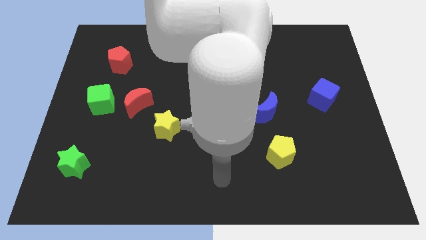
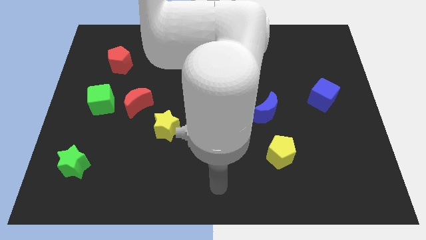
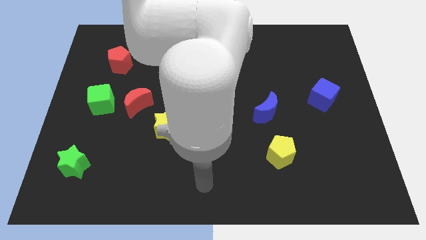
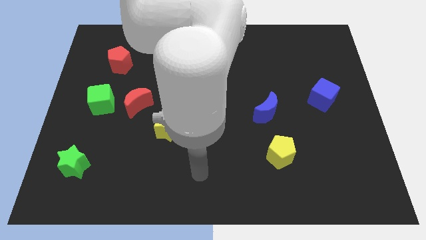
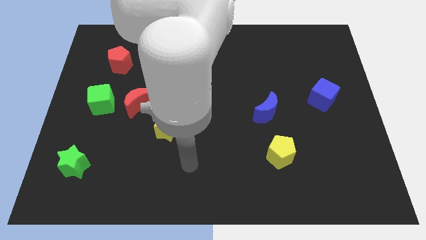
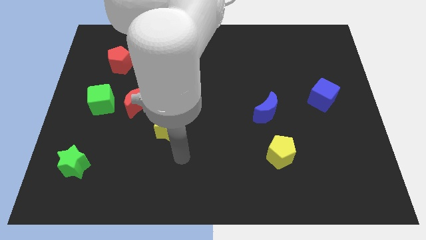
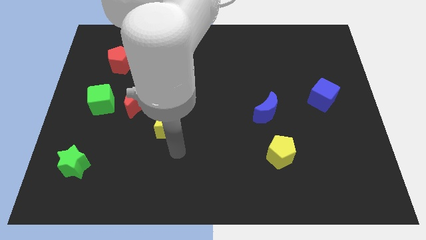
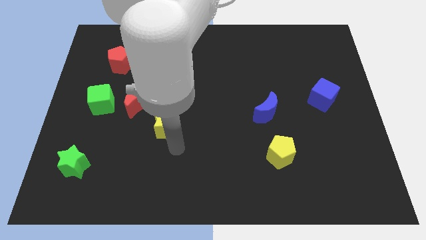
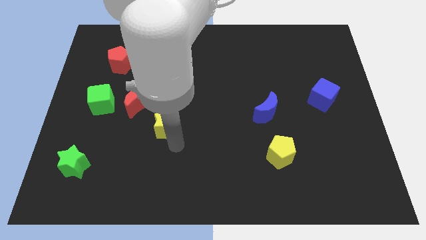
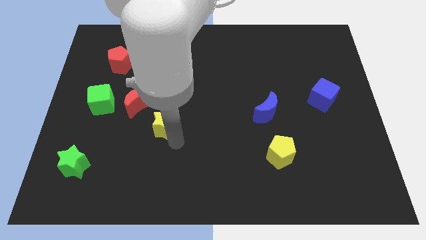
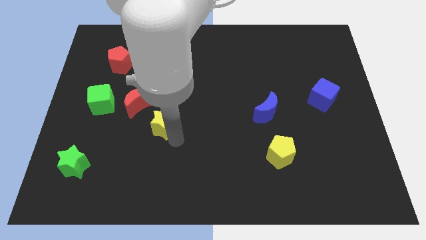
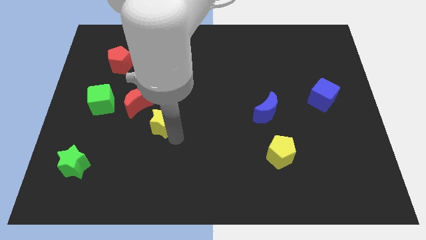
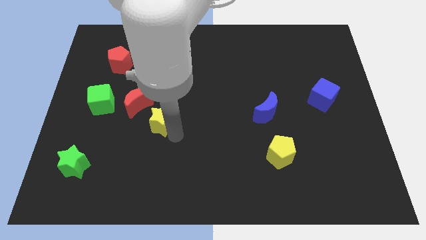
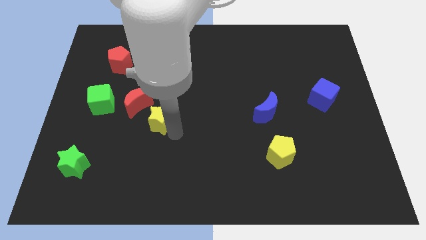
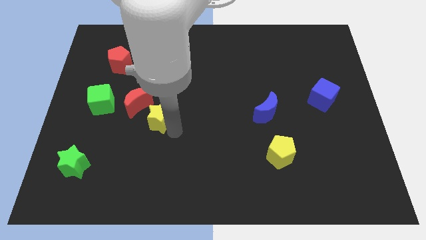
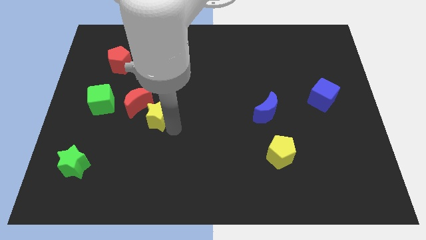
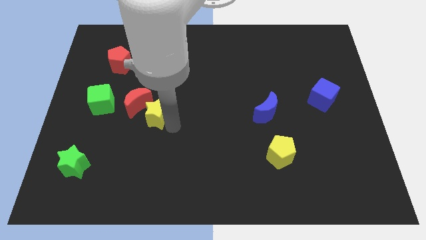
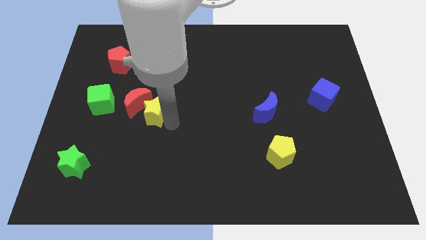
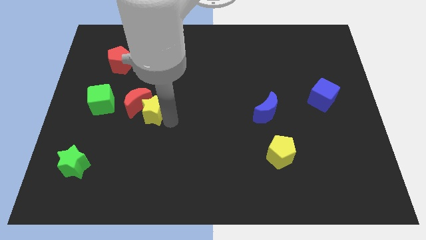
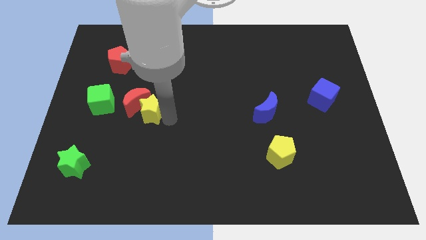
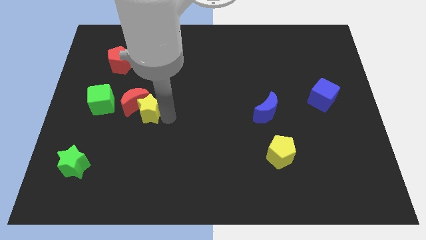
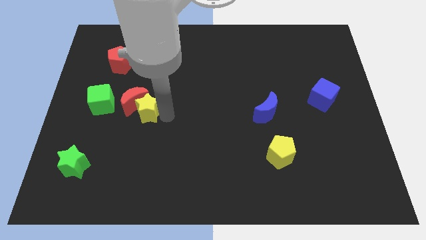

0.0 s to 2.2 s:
slightly slide the yellow star upwards and left diagonally

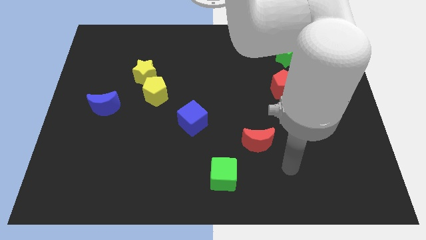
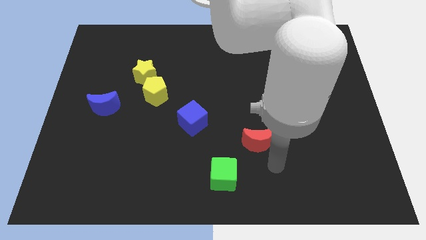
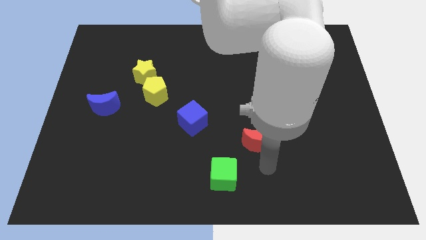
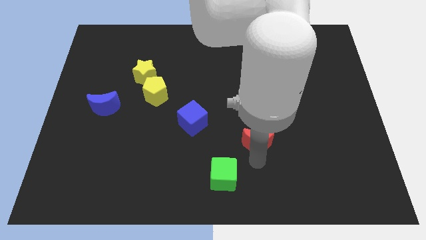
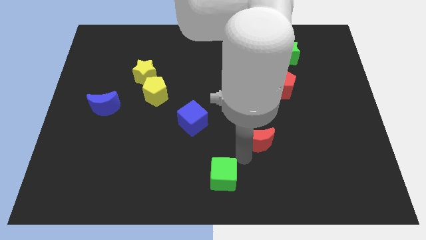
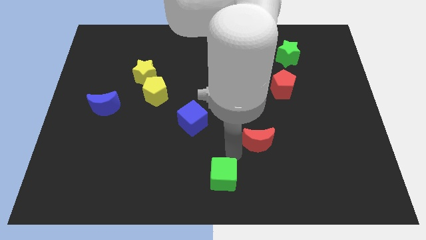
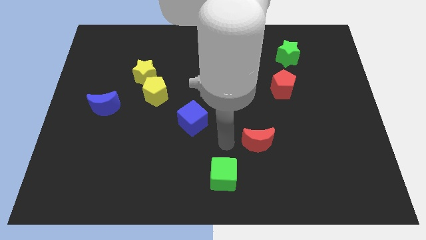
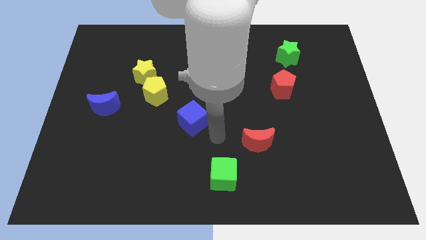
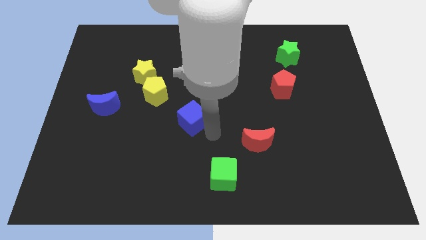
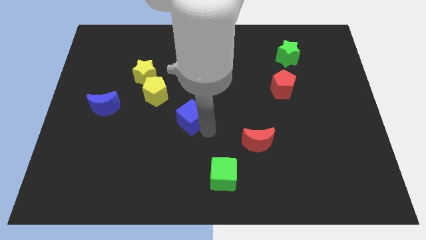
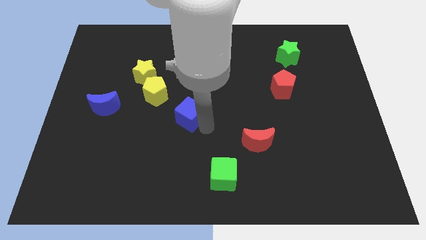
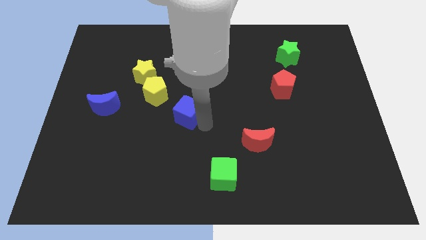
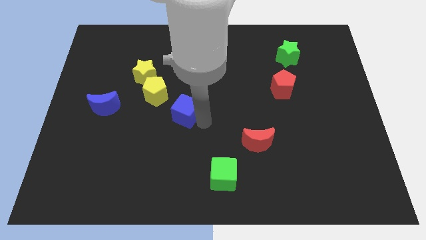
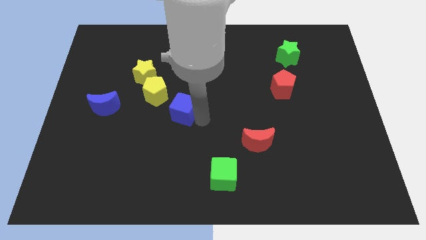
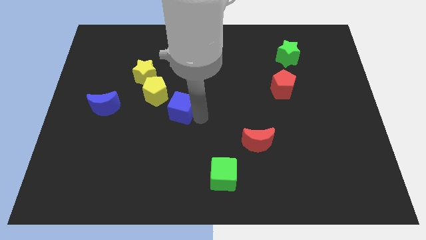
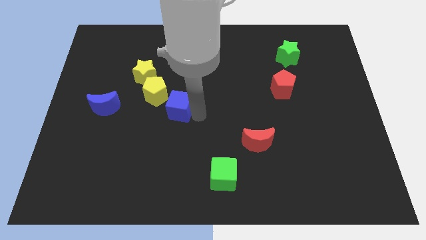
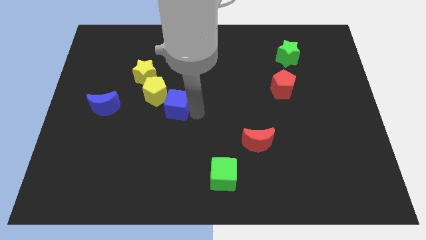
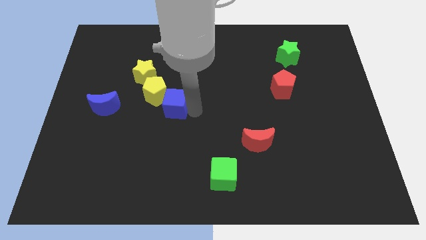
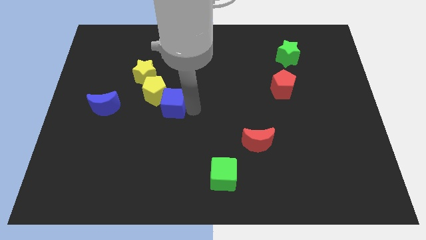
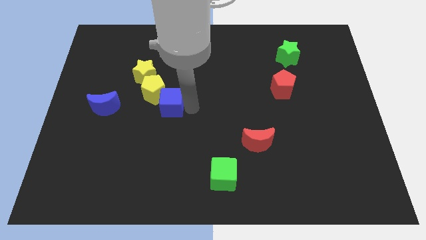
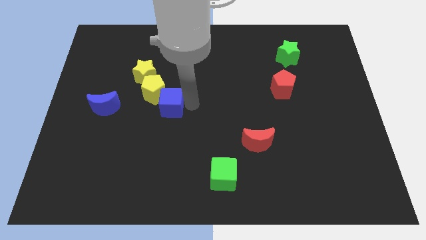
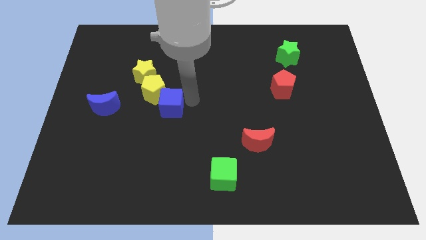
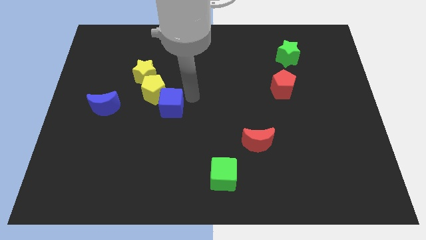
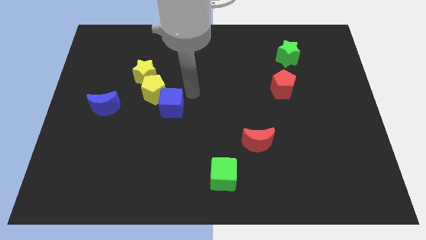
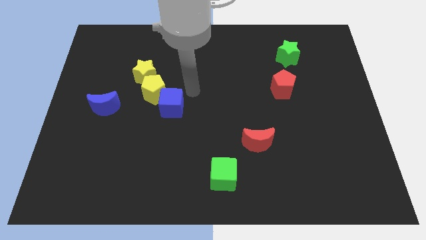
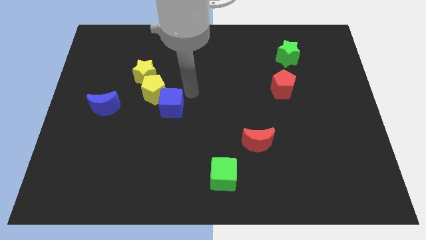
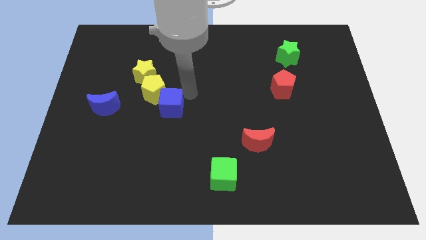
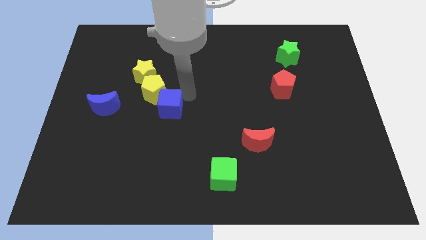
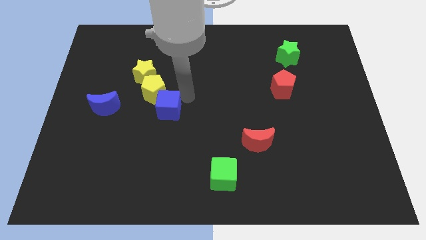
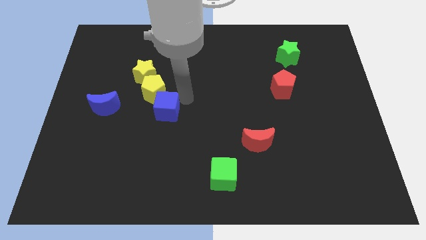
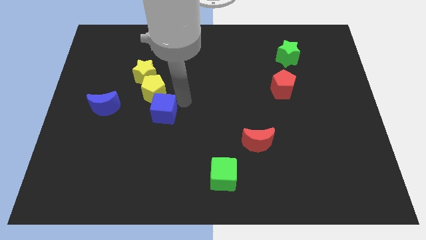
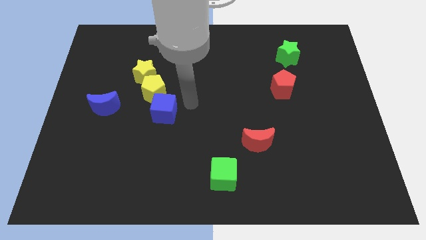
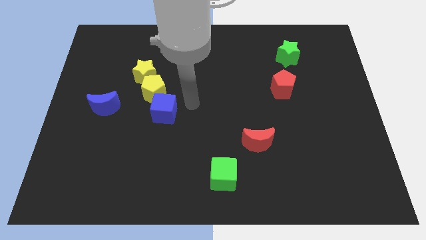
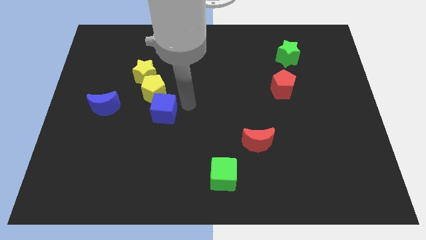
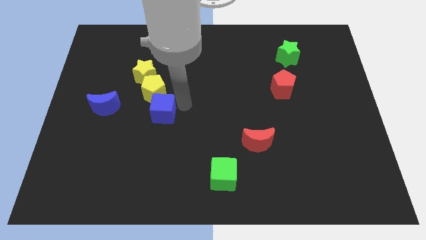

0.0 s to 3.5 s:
move the blue cube a bit to the left

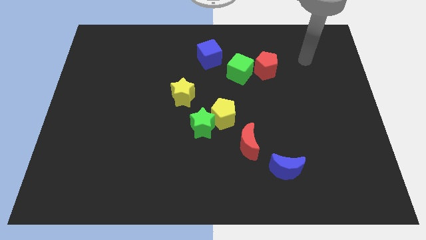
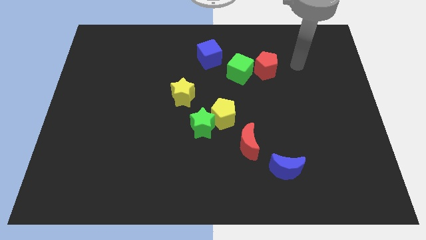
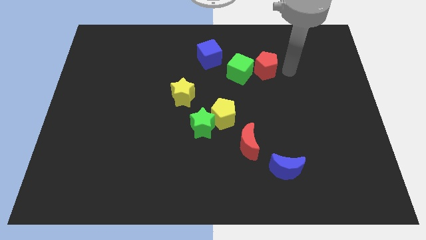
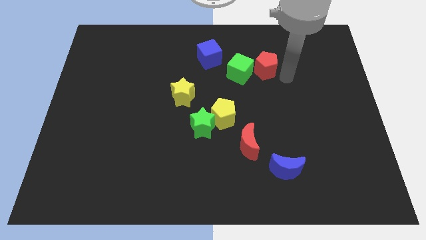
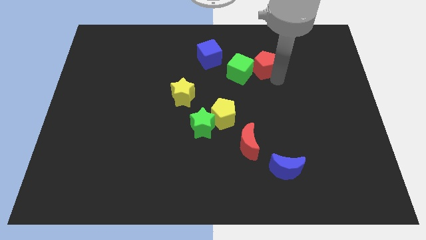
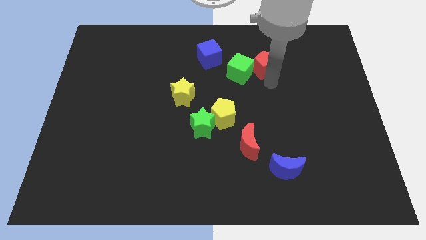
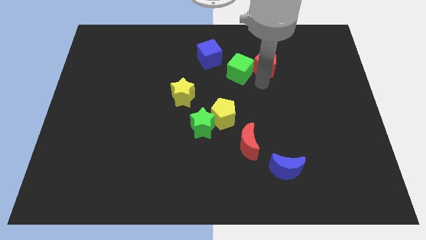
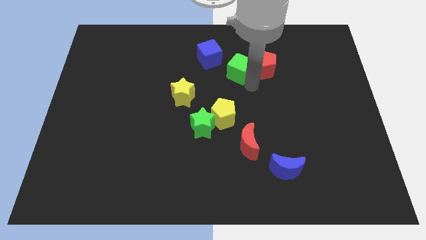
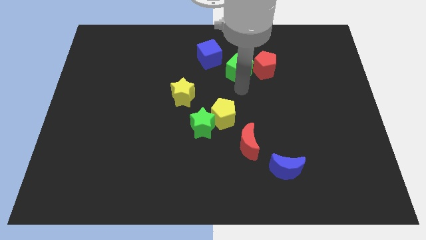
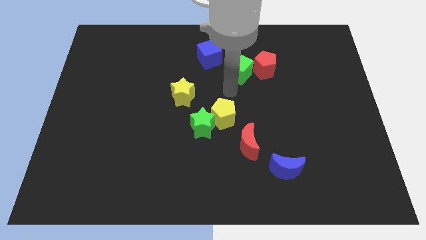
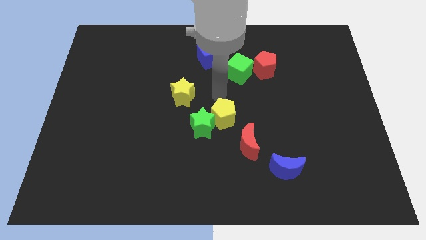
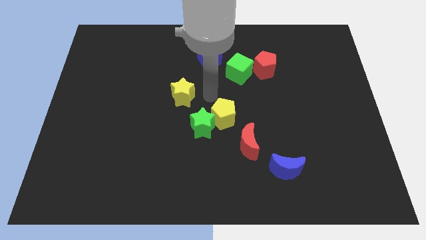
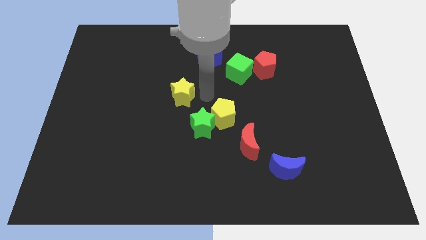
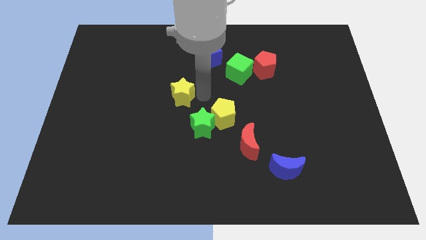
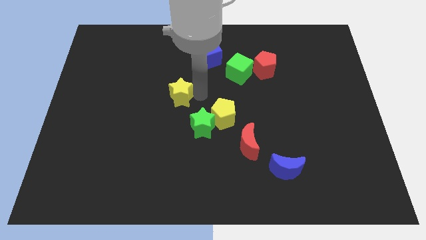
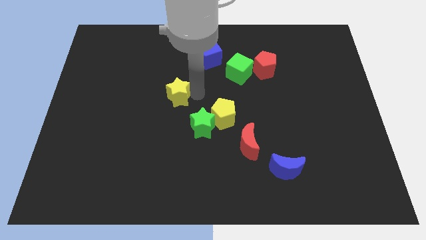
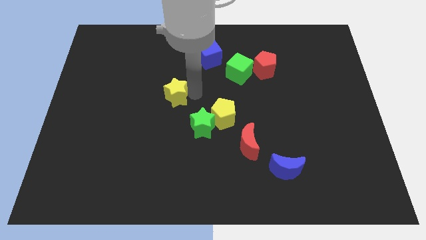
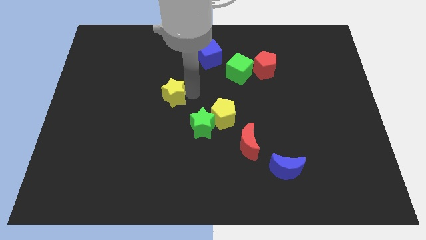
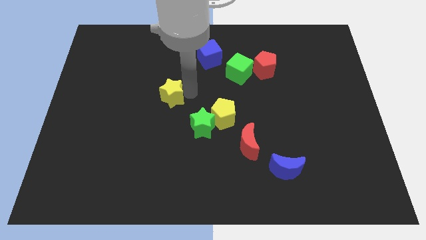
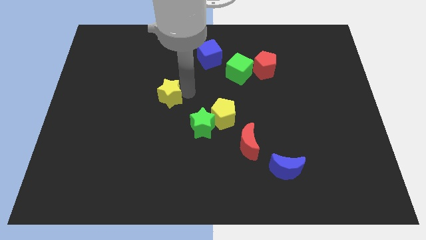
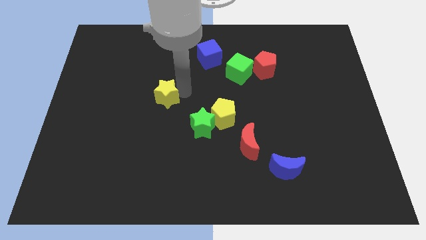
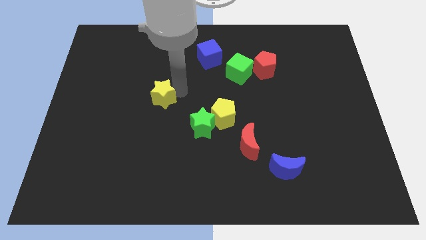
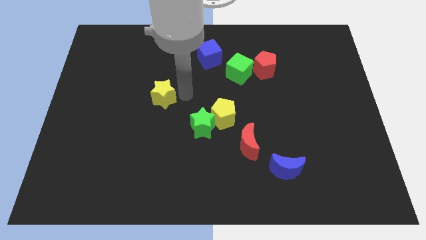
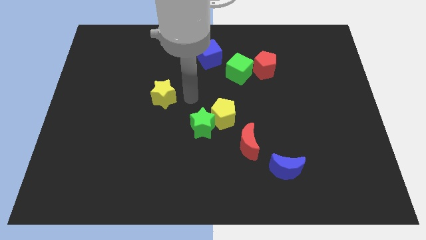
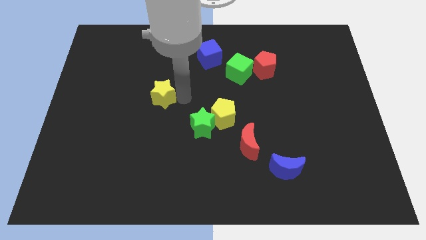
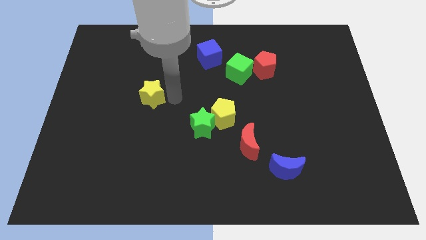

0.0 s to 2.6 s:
push the yellow star a little bit to the left
